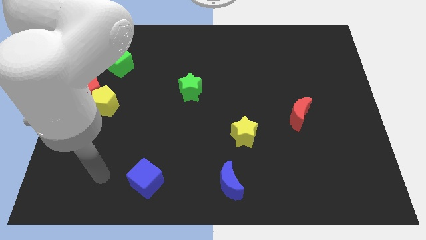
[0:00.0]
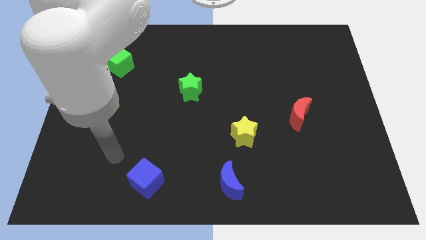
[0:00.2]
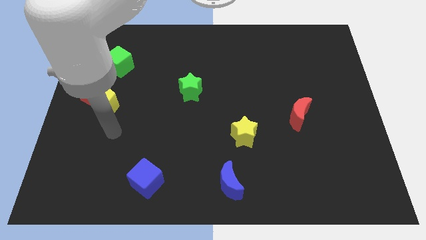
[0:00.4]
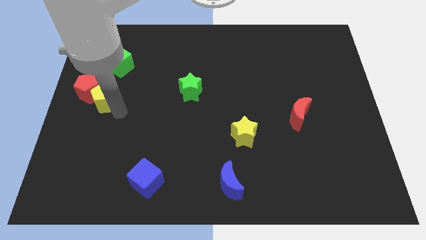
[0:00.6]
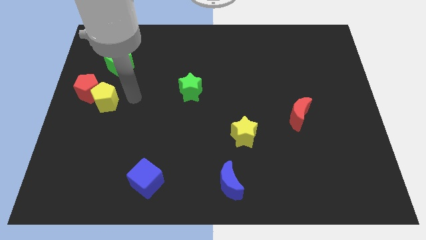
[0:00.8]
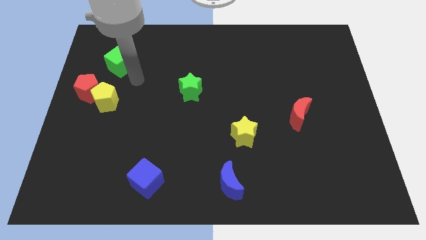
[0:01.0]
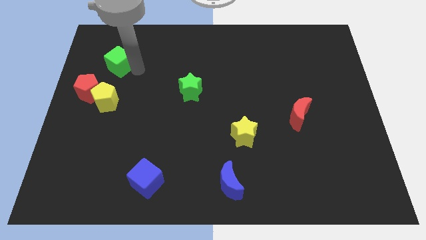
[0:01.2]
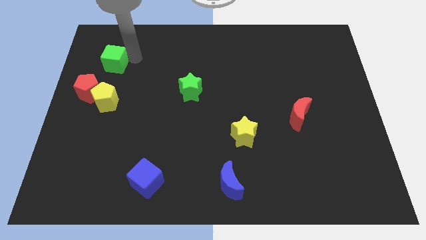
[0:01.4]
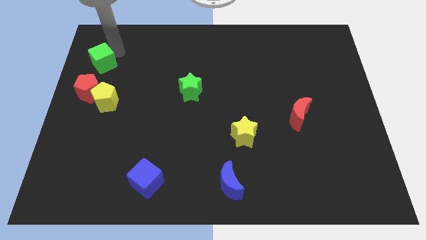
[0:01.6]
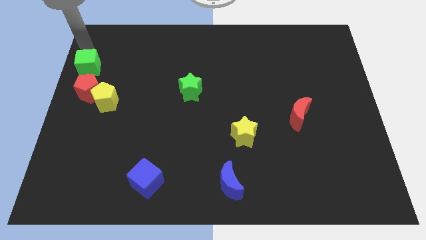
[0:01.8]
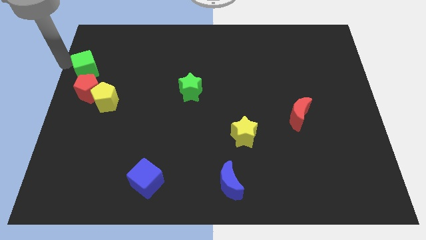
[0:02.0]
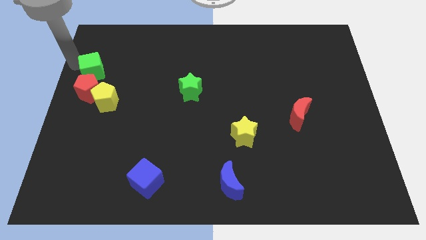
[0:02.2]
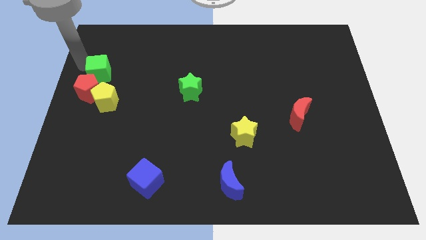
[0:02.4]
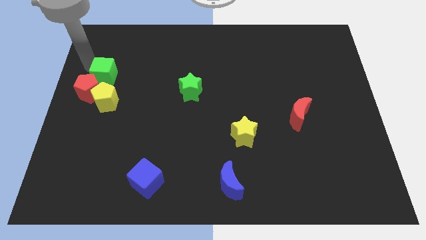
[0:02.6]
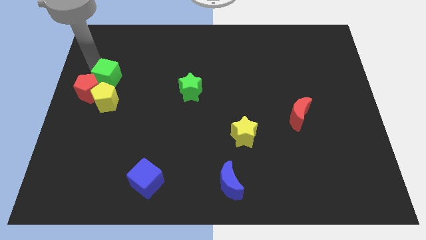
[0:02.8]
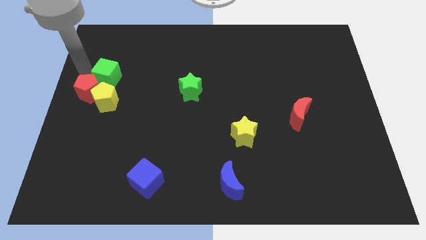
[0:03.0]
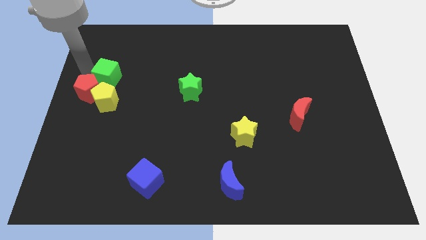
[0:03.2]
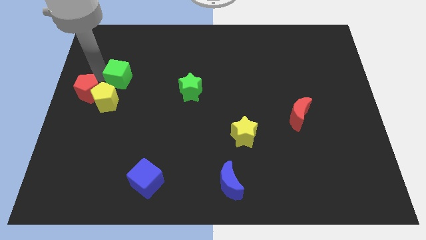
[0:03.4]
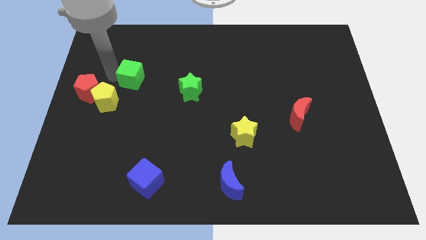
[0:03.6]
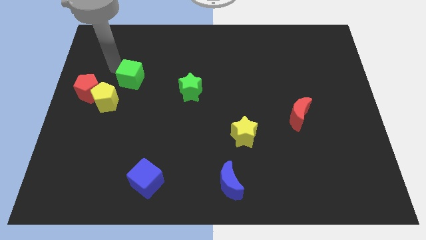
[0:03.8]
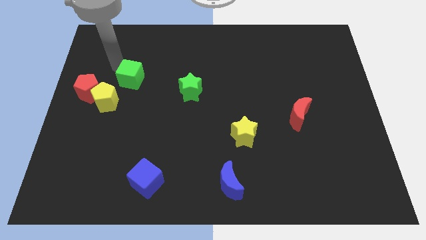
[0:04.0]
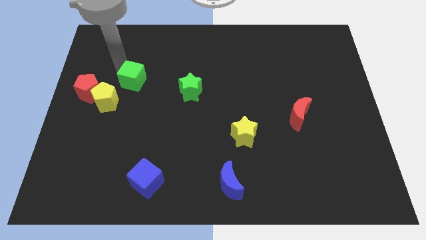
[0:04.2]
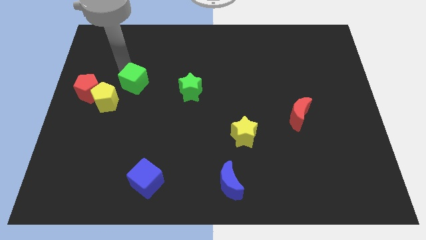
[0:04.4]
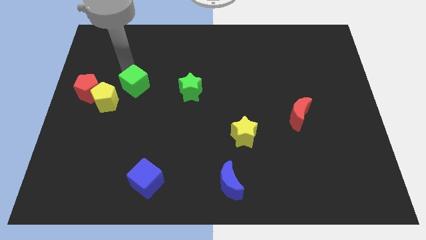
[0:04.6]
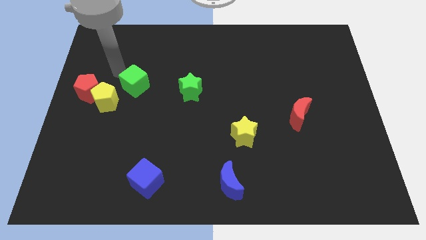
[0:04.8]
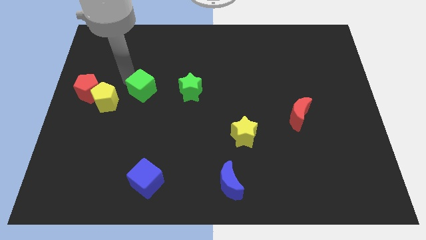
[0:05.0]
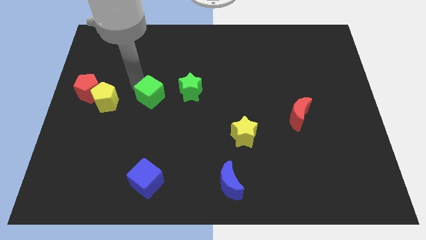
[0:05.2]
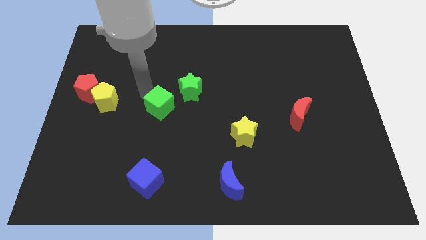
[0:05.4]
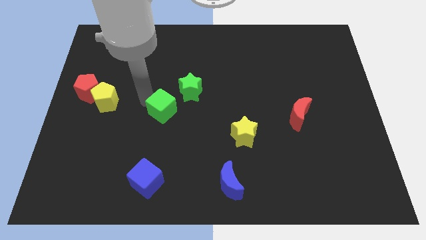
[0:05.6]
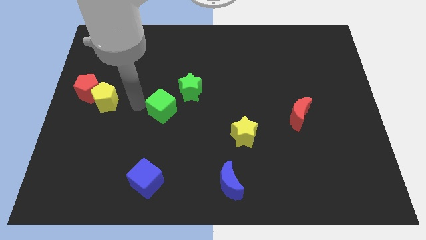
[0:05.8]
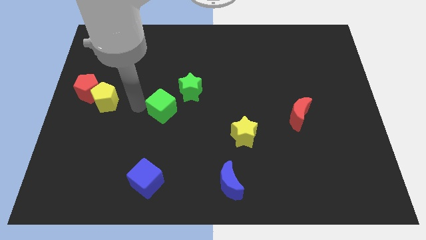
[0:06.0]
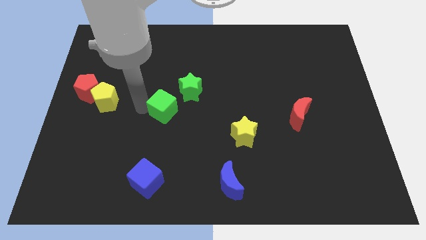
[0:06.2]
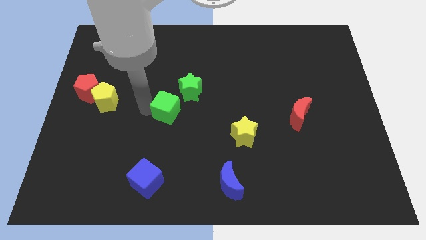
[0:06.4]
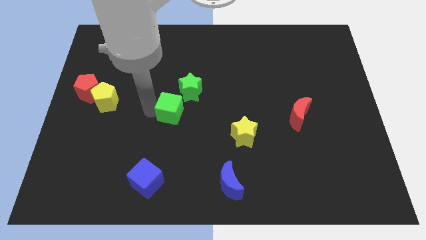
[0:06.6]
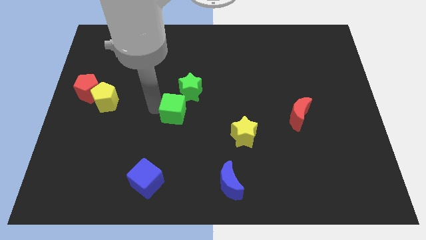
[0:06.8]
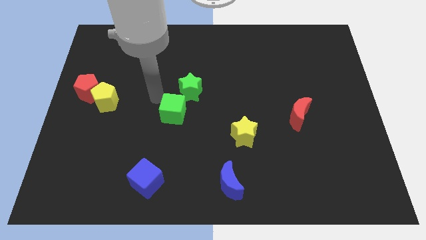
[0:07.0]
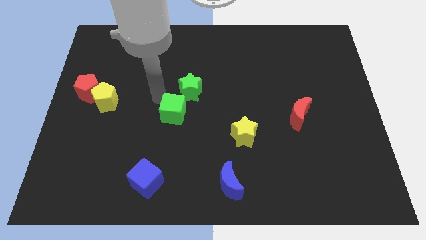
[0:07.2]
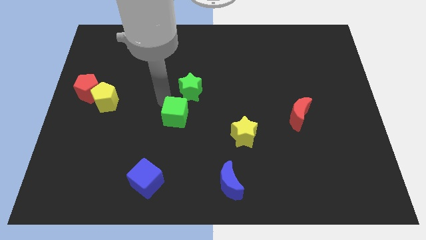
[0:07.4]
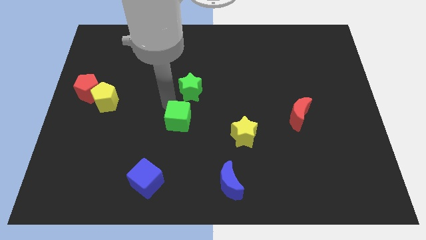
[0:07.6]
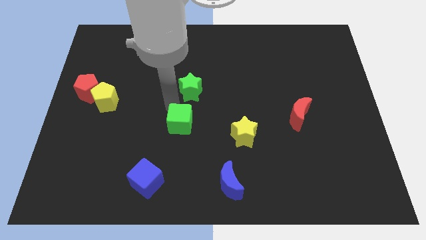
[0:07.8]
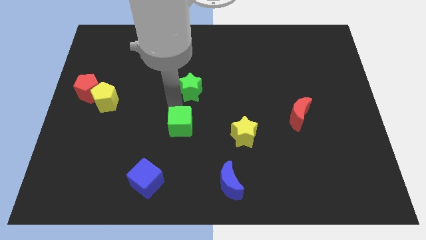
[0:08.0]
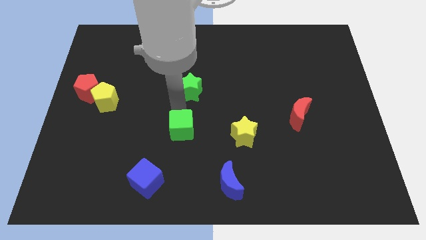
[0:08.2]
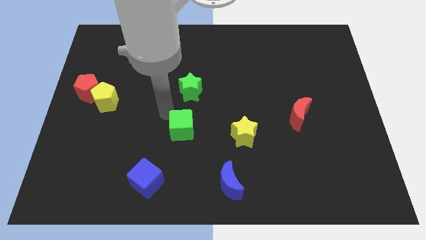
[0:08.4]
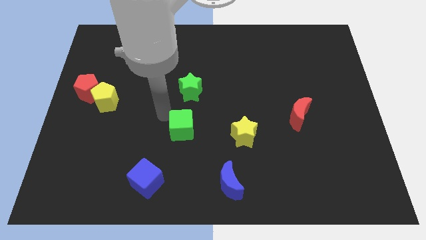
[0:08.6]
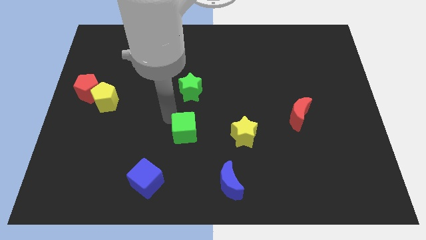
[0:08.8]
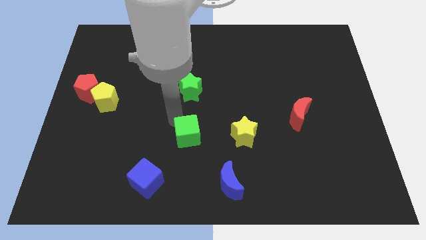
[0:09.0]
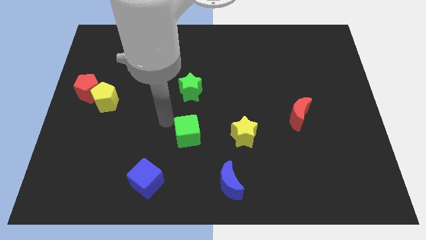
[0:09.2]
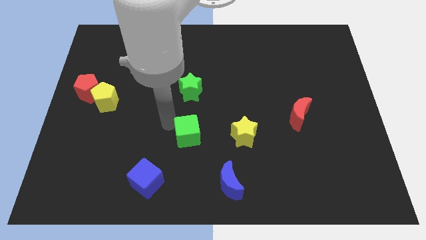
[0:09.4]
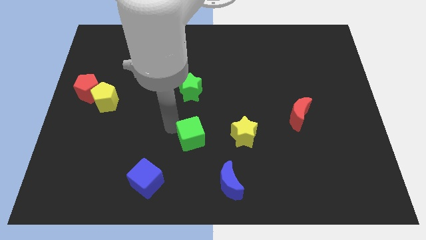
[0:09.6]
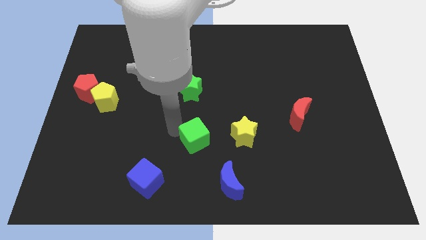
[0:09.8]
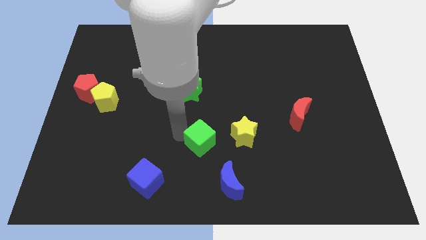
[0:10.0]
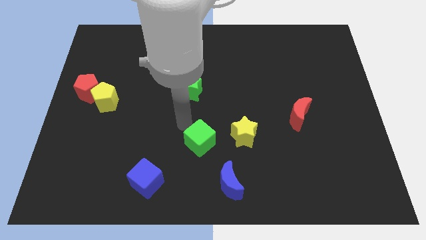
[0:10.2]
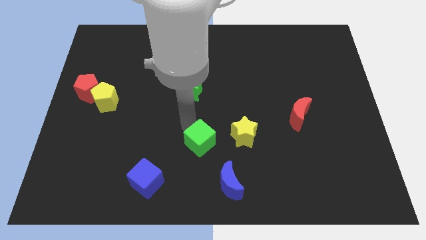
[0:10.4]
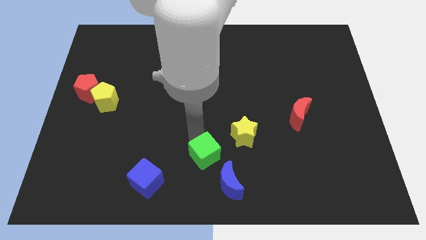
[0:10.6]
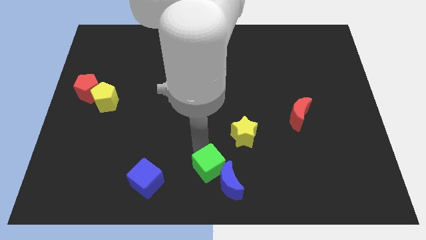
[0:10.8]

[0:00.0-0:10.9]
move the green cube close to the blue moon

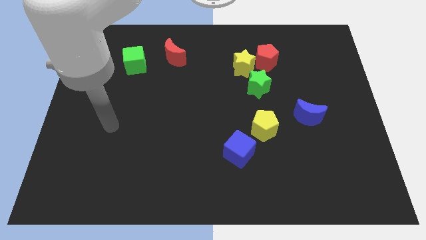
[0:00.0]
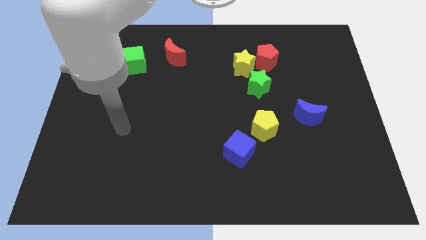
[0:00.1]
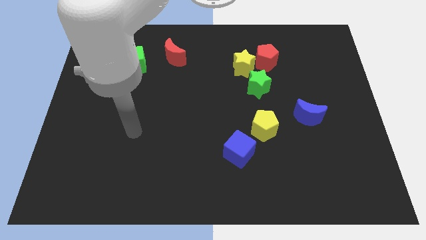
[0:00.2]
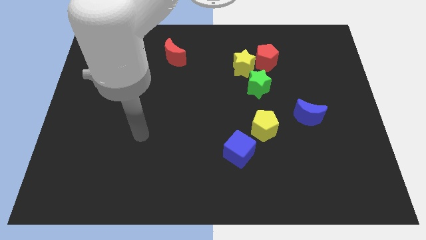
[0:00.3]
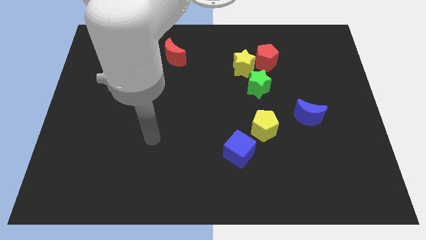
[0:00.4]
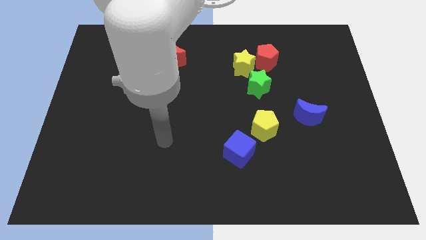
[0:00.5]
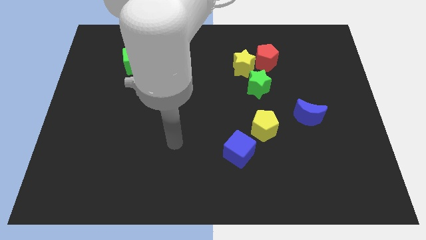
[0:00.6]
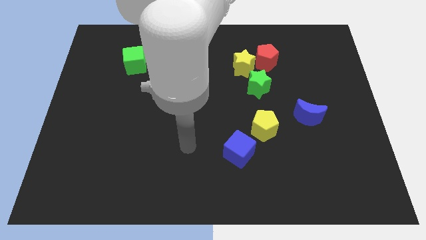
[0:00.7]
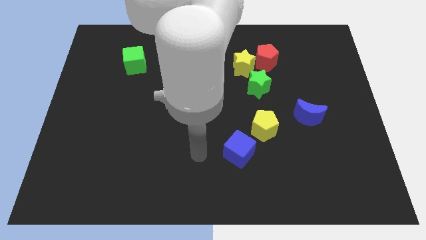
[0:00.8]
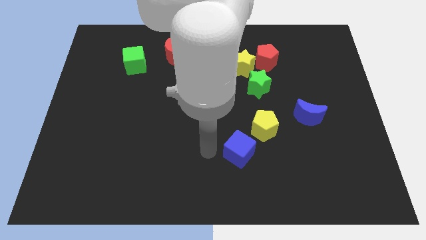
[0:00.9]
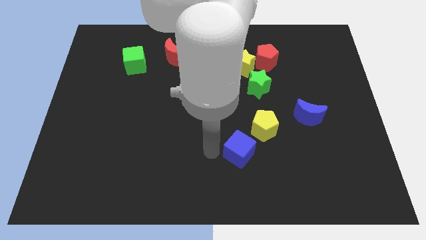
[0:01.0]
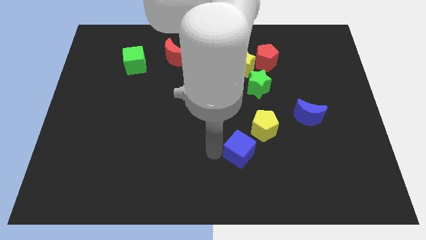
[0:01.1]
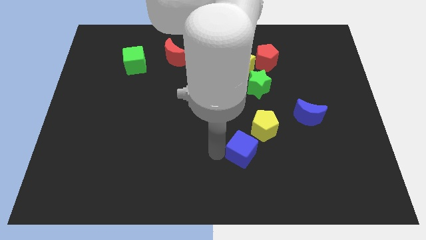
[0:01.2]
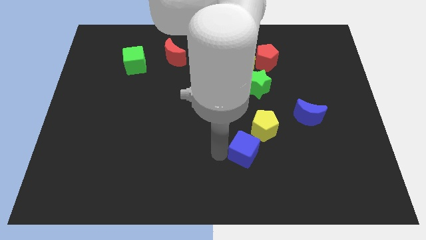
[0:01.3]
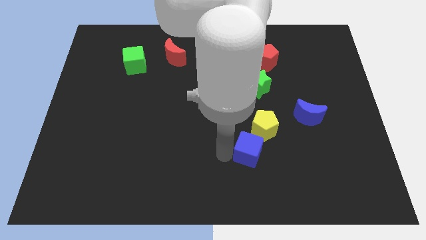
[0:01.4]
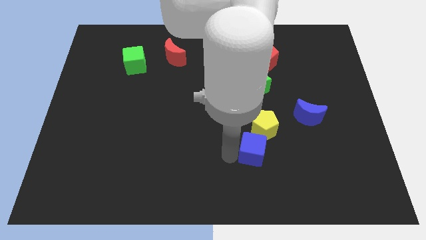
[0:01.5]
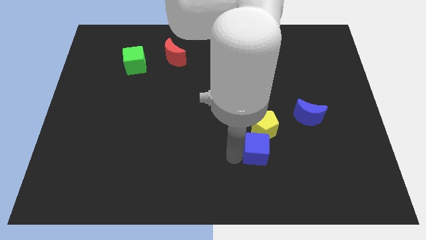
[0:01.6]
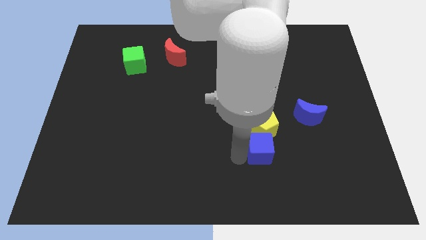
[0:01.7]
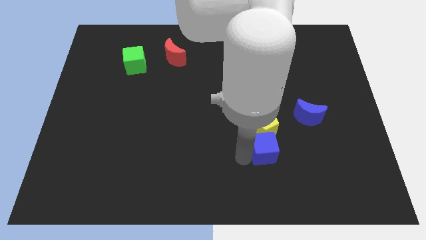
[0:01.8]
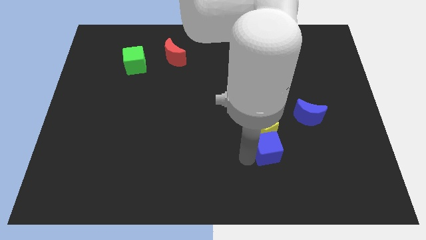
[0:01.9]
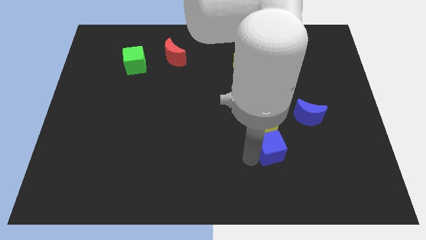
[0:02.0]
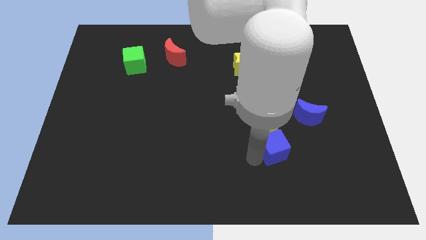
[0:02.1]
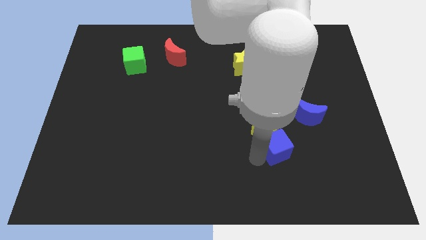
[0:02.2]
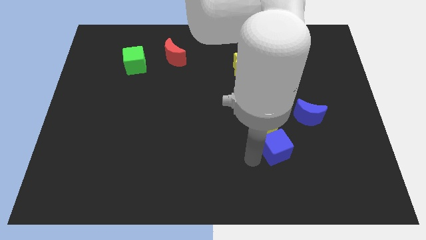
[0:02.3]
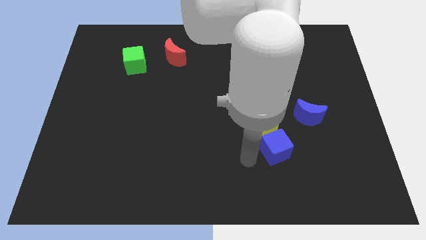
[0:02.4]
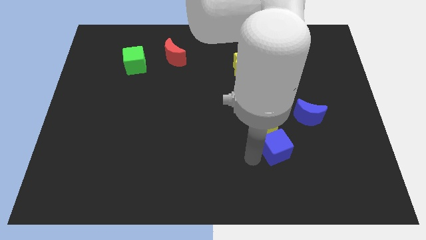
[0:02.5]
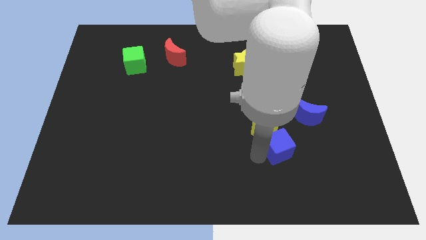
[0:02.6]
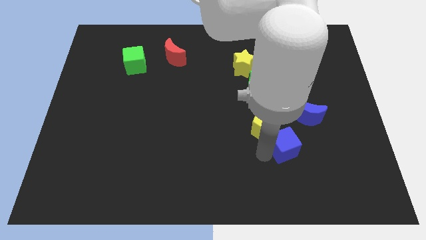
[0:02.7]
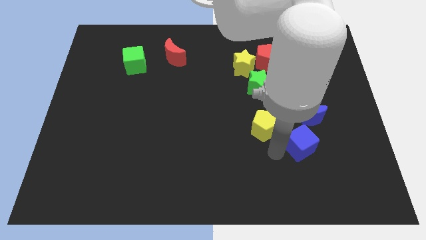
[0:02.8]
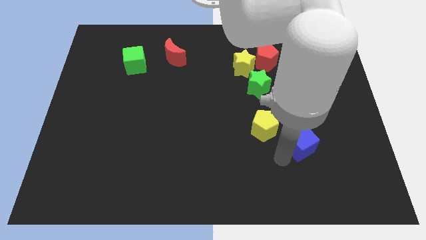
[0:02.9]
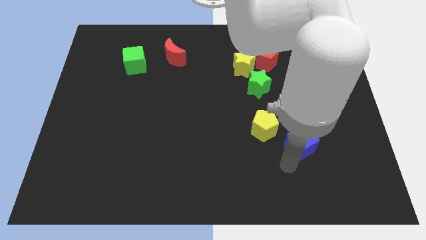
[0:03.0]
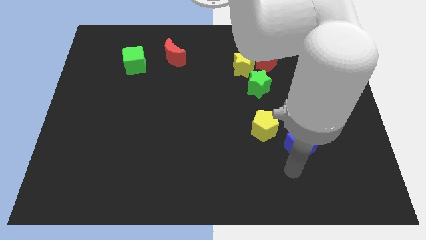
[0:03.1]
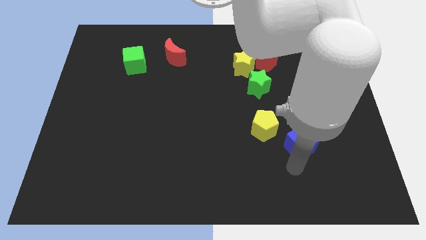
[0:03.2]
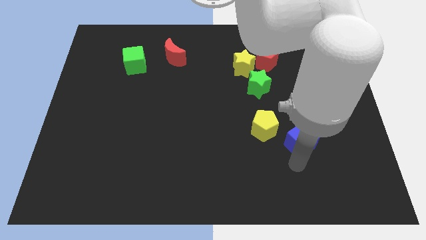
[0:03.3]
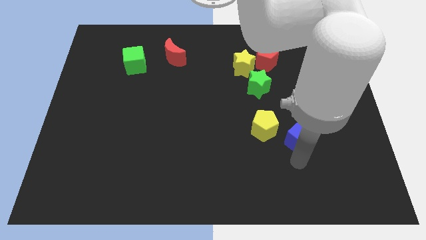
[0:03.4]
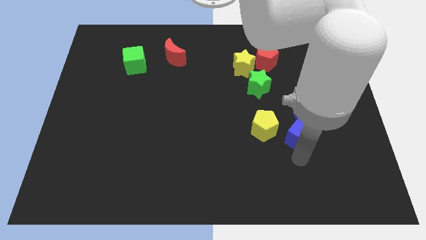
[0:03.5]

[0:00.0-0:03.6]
slide the blue cube towards the blue moon
